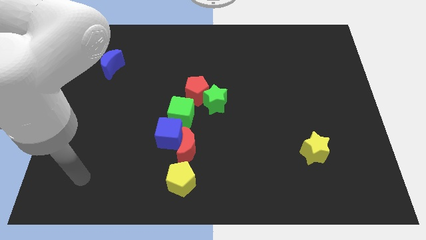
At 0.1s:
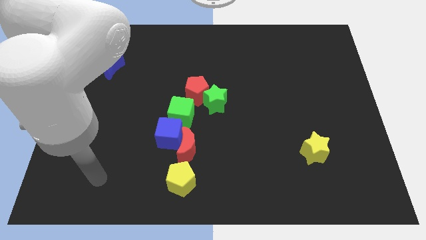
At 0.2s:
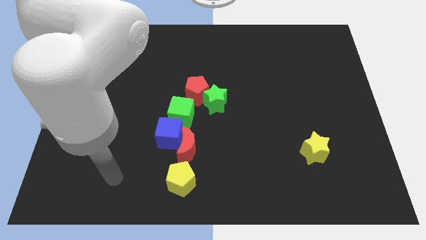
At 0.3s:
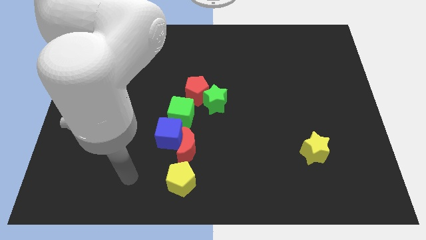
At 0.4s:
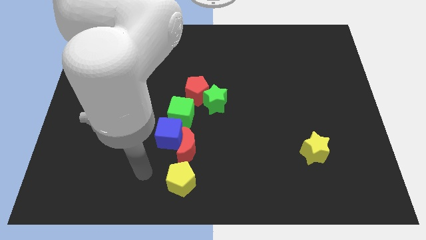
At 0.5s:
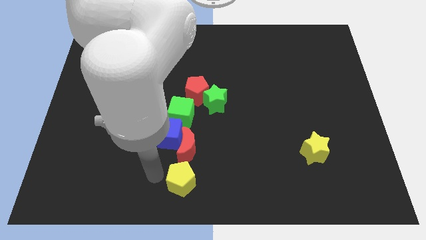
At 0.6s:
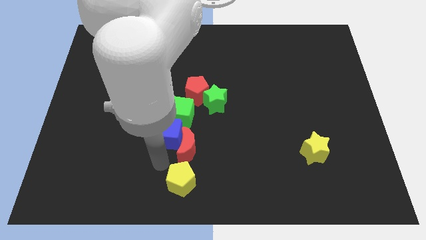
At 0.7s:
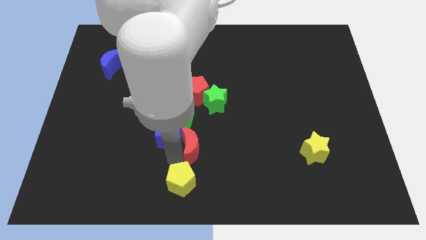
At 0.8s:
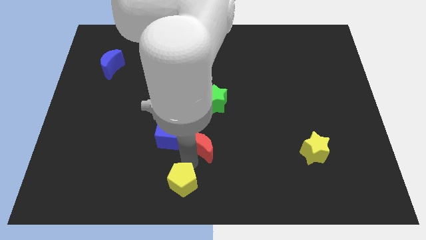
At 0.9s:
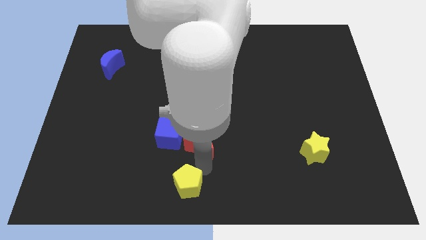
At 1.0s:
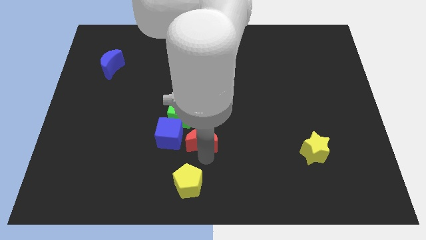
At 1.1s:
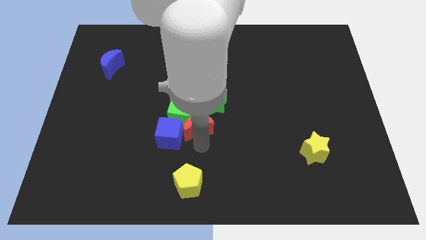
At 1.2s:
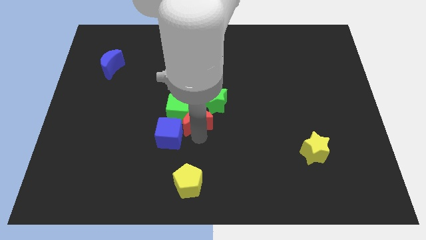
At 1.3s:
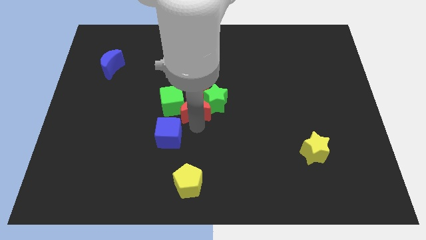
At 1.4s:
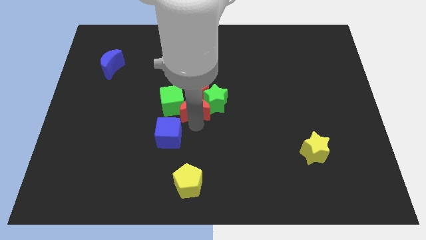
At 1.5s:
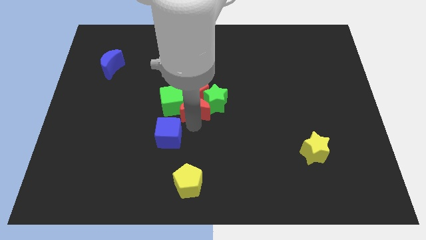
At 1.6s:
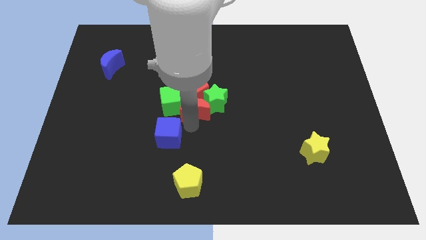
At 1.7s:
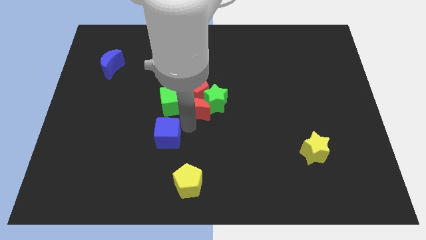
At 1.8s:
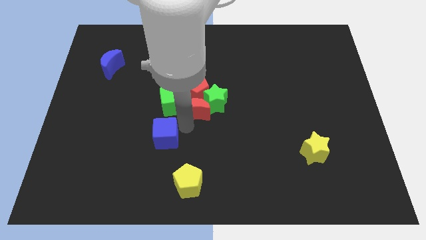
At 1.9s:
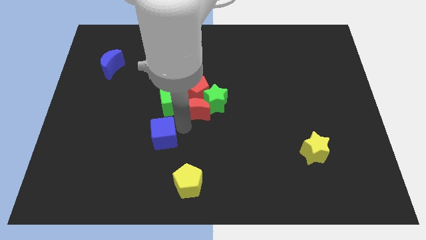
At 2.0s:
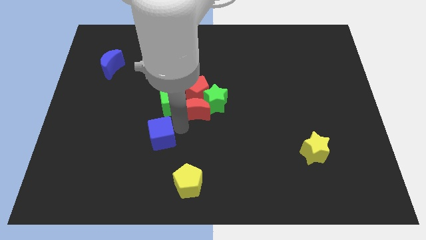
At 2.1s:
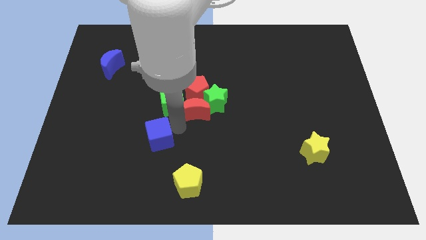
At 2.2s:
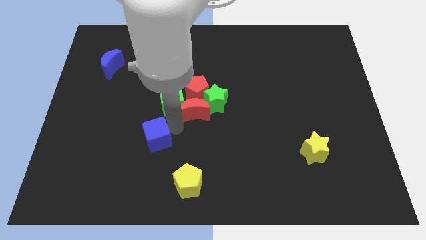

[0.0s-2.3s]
pull the blue cube apart from the red moon and green cube

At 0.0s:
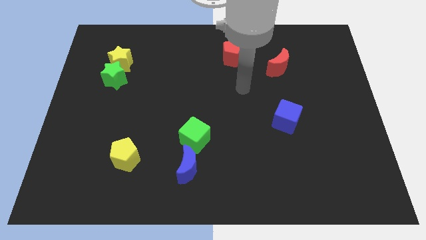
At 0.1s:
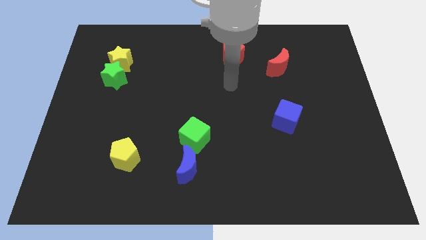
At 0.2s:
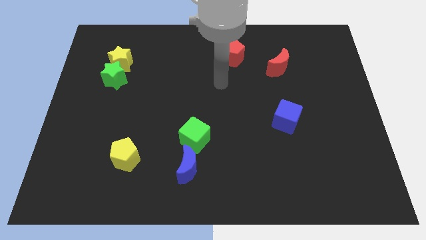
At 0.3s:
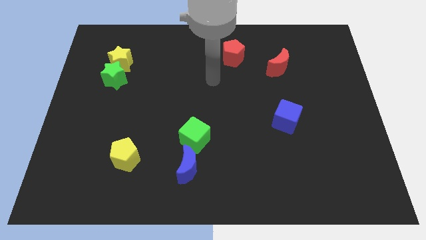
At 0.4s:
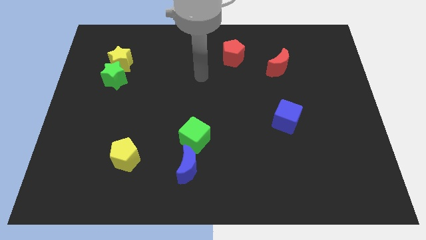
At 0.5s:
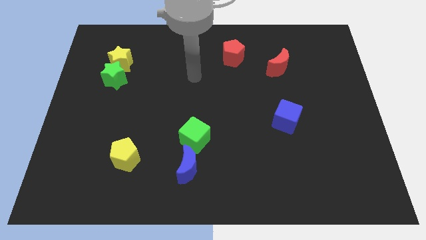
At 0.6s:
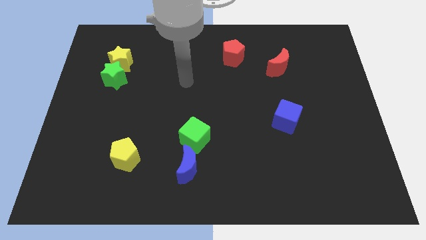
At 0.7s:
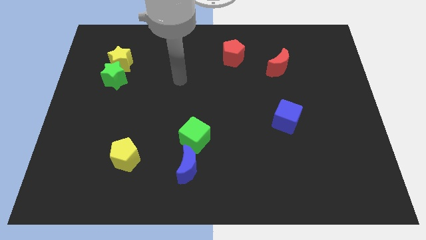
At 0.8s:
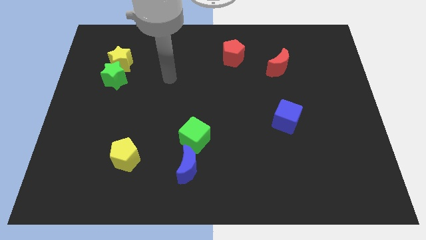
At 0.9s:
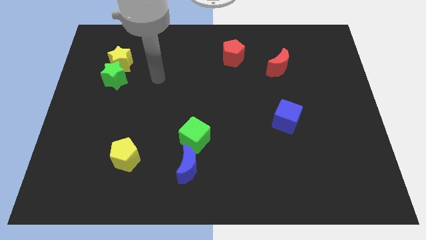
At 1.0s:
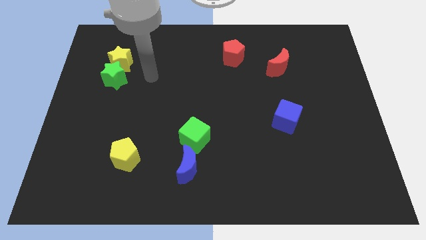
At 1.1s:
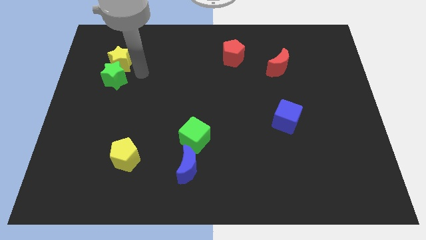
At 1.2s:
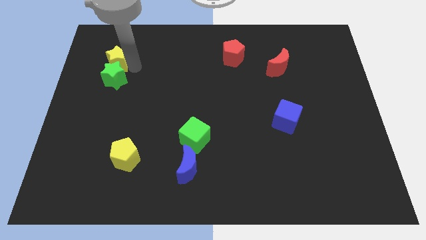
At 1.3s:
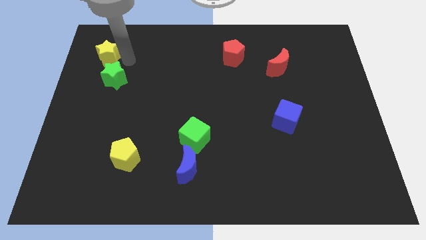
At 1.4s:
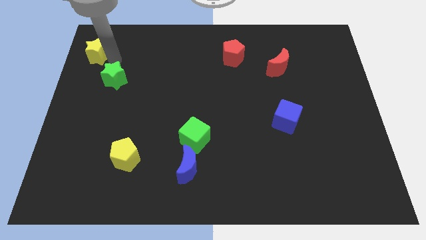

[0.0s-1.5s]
pull the green star apart from the yellow star

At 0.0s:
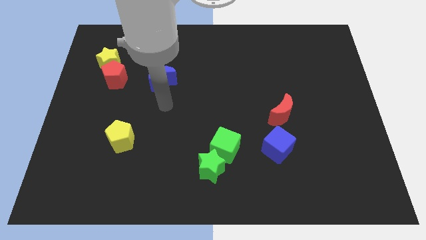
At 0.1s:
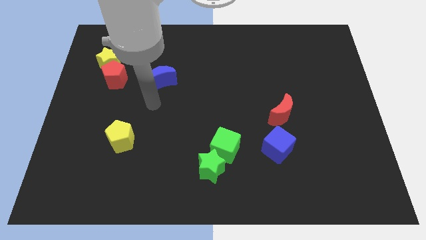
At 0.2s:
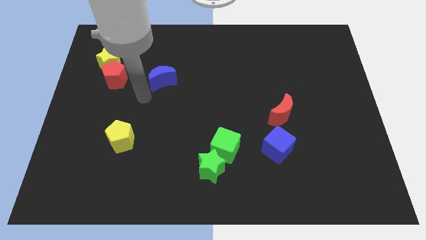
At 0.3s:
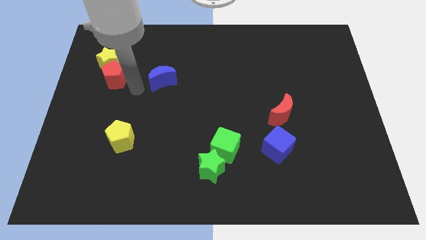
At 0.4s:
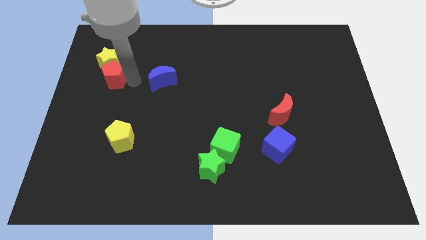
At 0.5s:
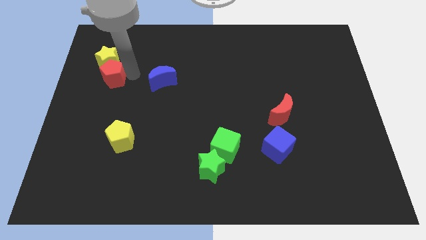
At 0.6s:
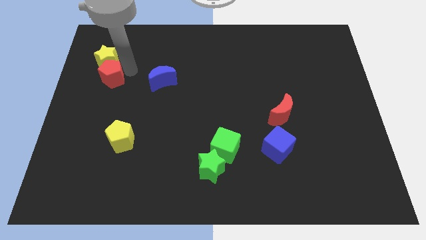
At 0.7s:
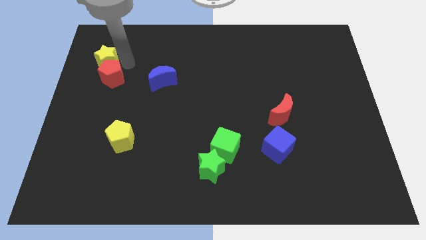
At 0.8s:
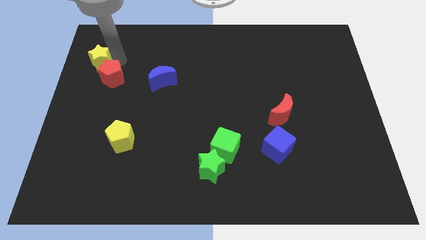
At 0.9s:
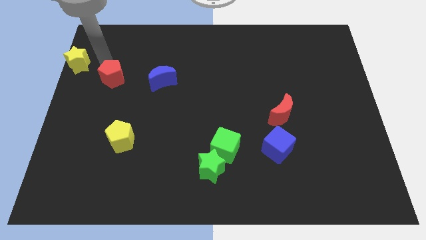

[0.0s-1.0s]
separate the red pentagon from the yellow star

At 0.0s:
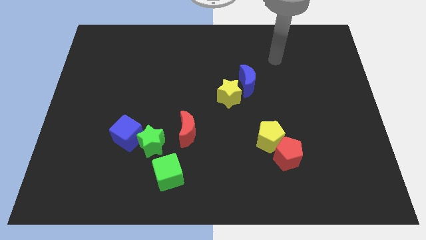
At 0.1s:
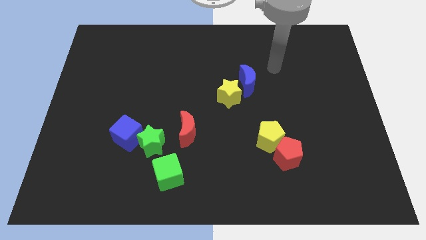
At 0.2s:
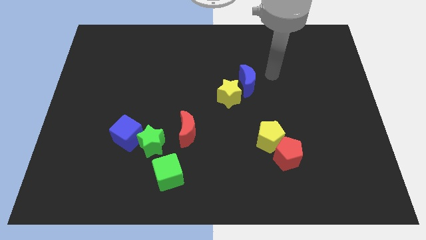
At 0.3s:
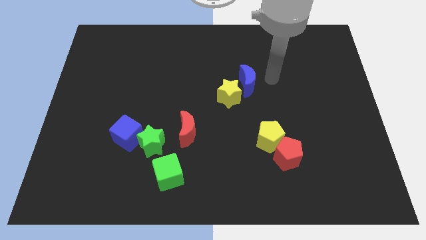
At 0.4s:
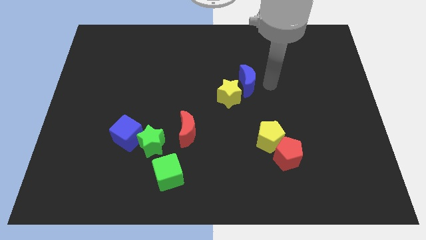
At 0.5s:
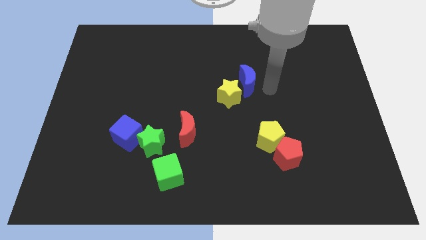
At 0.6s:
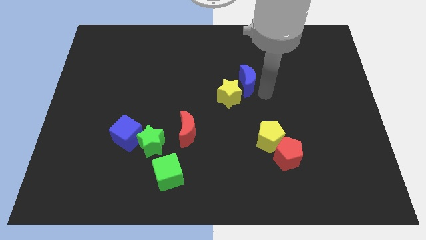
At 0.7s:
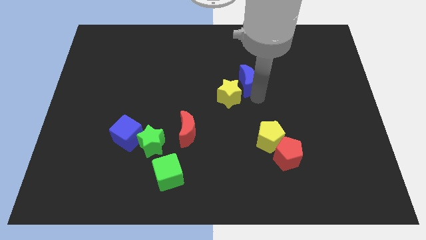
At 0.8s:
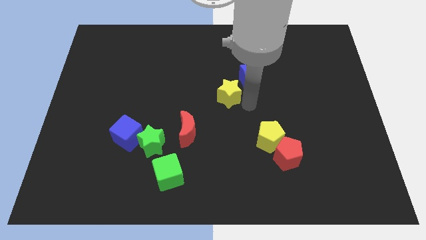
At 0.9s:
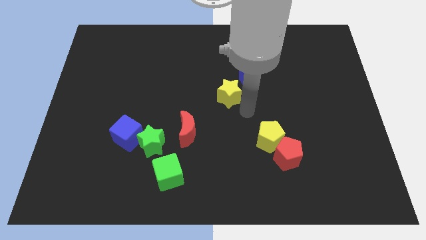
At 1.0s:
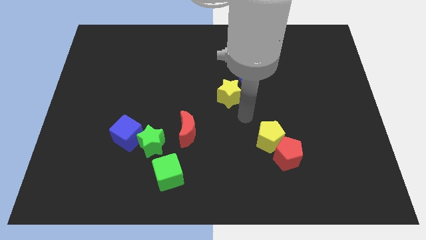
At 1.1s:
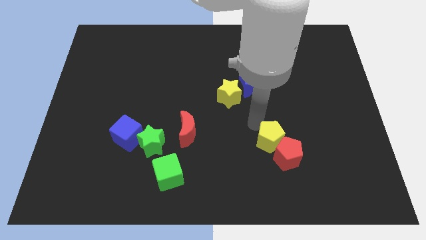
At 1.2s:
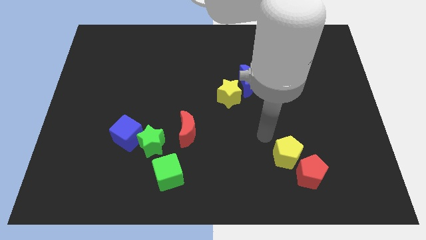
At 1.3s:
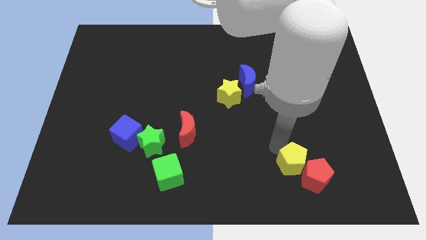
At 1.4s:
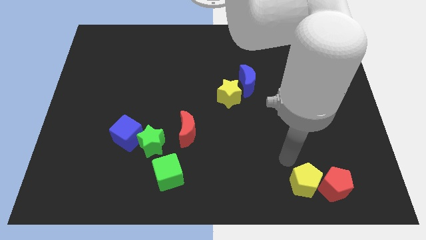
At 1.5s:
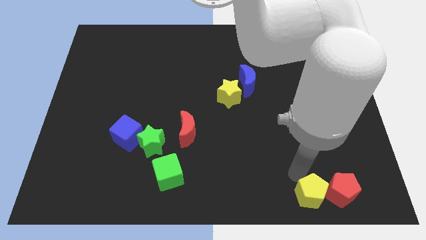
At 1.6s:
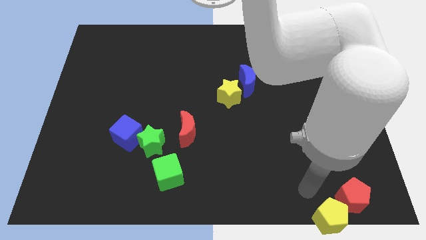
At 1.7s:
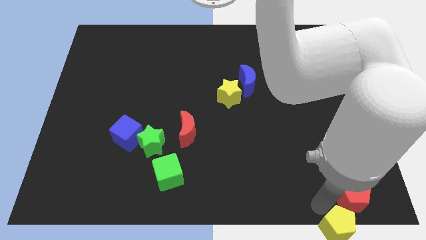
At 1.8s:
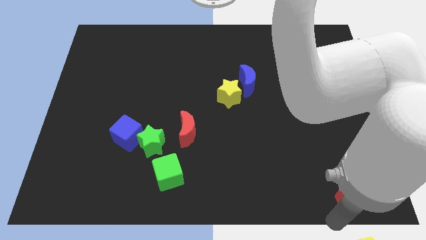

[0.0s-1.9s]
pull the red pentagon apart from the yellow pentagon

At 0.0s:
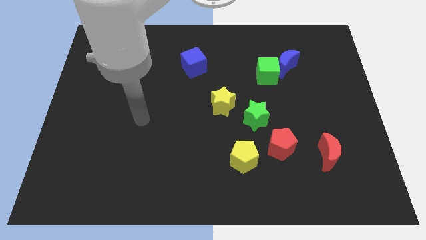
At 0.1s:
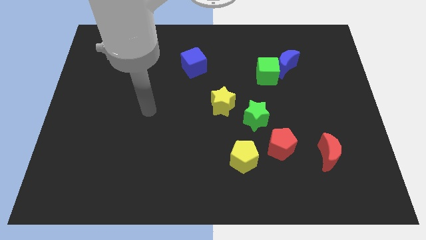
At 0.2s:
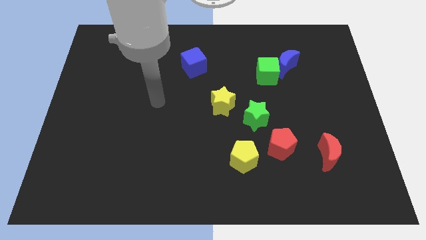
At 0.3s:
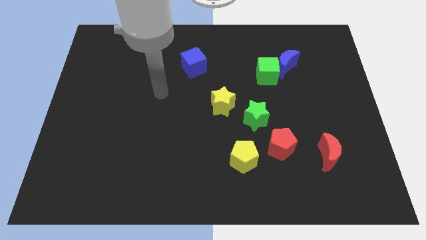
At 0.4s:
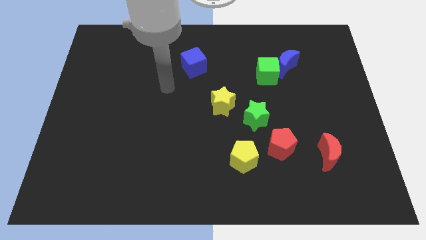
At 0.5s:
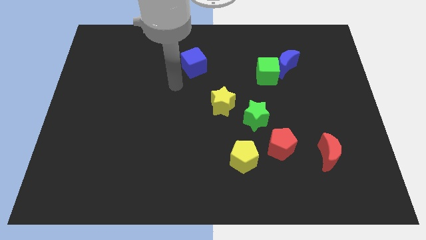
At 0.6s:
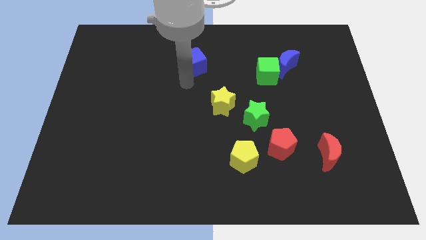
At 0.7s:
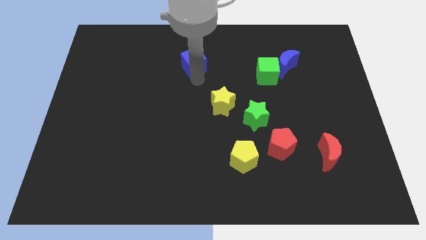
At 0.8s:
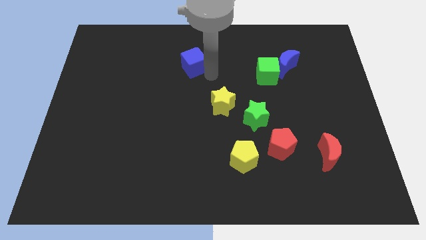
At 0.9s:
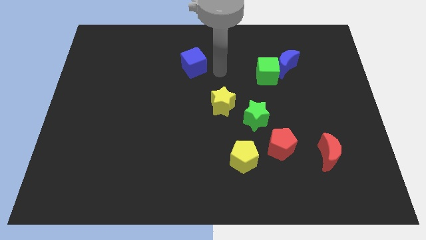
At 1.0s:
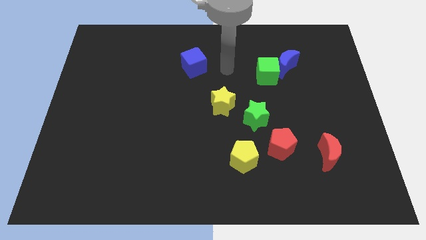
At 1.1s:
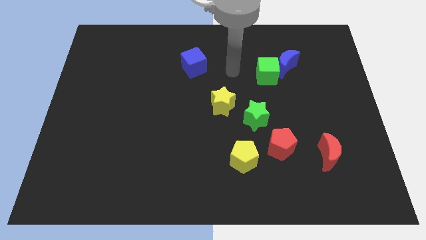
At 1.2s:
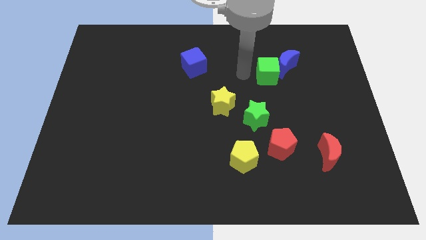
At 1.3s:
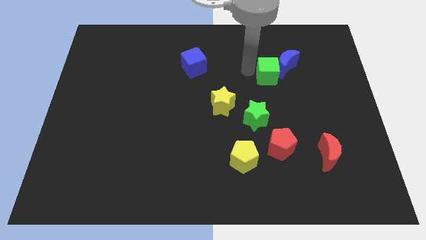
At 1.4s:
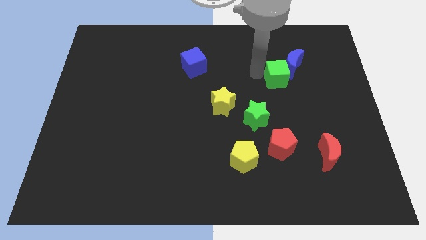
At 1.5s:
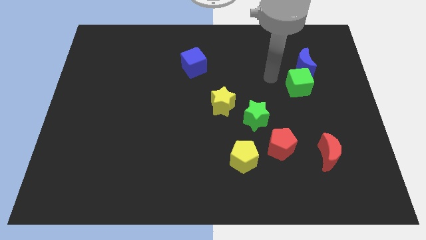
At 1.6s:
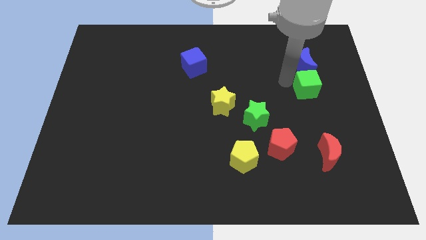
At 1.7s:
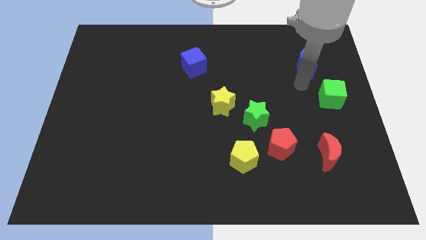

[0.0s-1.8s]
move the blue moon away from the green cube

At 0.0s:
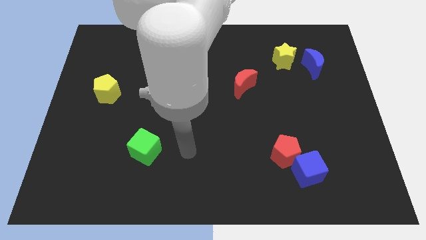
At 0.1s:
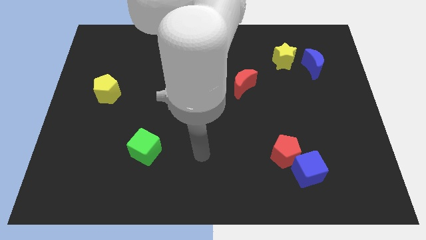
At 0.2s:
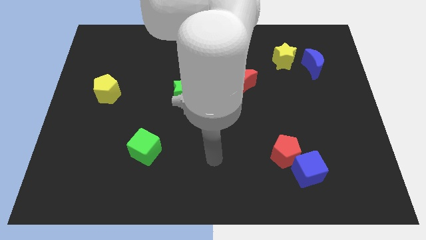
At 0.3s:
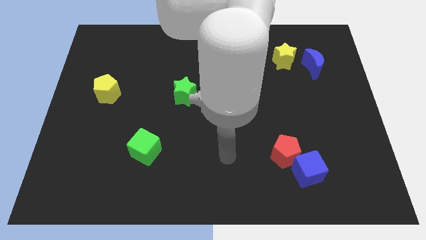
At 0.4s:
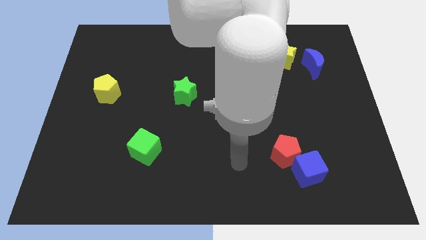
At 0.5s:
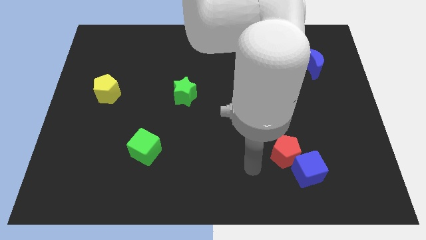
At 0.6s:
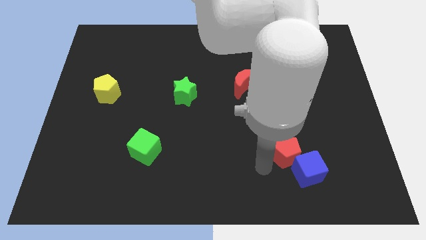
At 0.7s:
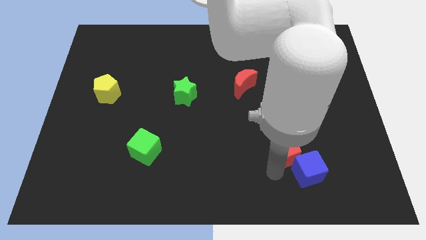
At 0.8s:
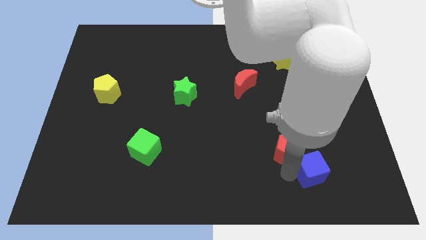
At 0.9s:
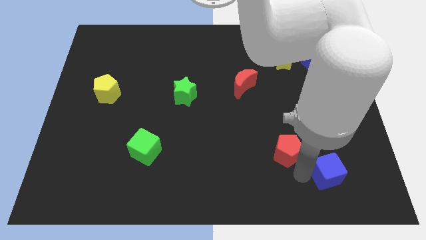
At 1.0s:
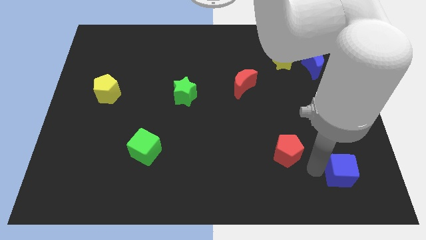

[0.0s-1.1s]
move the red pentagon away from the blue cube
